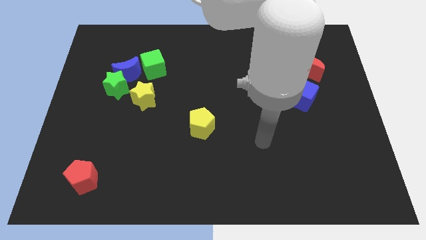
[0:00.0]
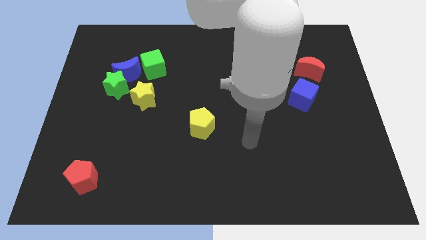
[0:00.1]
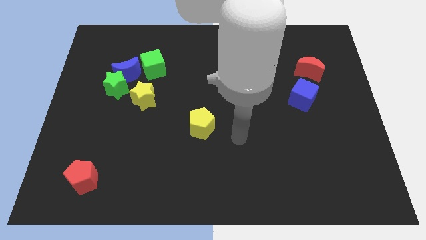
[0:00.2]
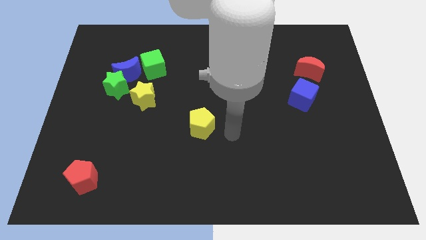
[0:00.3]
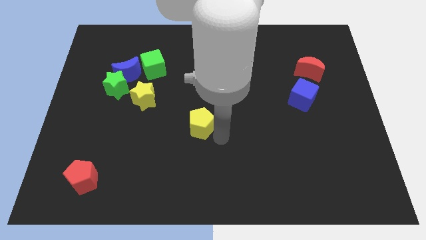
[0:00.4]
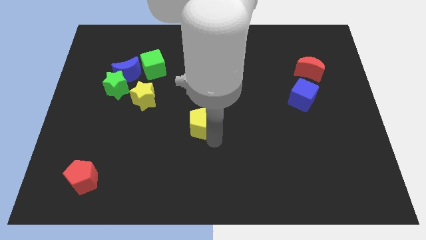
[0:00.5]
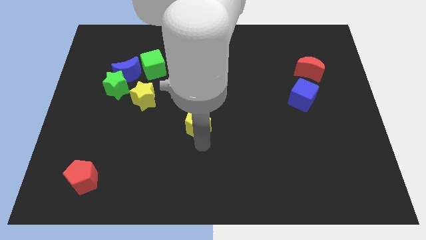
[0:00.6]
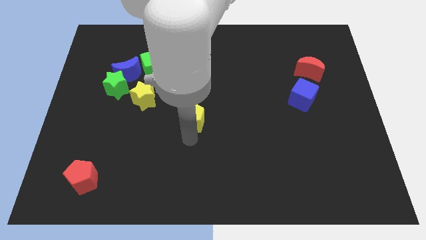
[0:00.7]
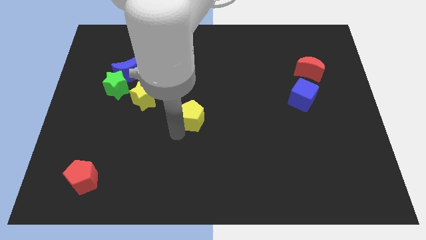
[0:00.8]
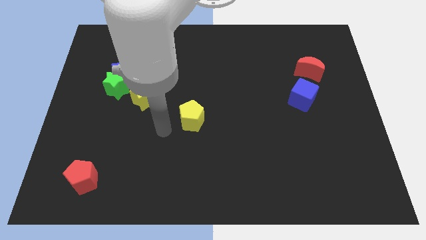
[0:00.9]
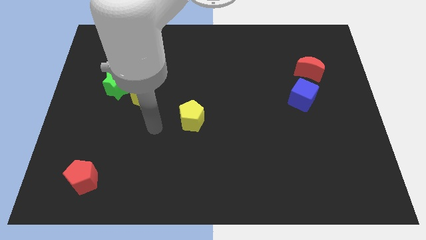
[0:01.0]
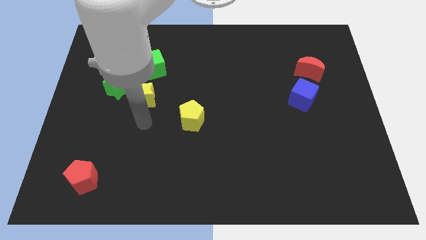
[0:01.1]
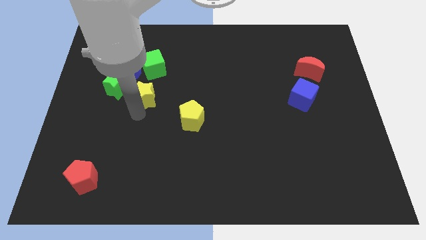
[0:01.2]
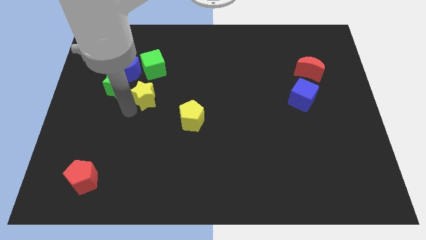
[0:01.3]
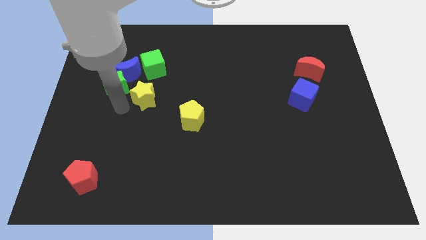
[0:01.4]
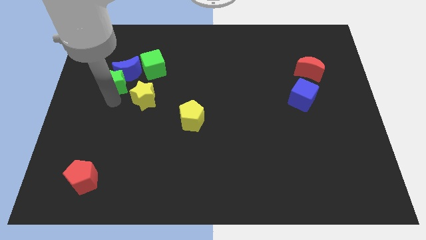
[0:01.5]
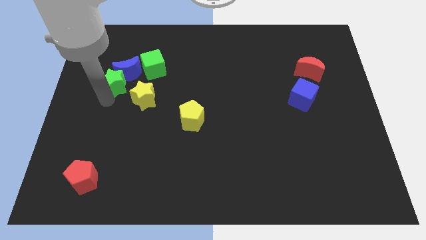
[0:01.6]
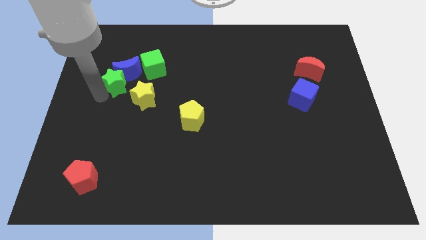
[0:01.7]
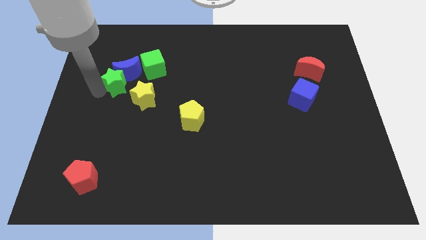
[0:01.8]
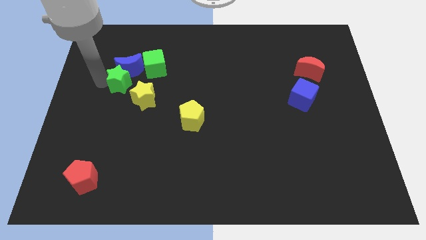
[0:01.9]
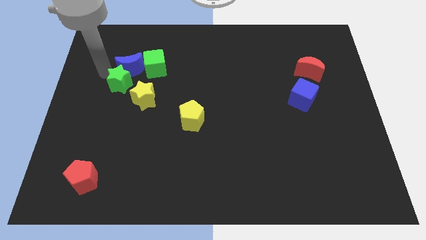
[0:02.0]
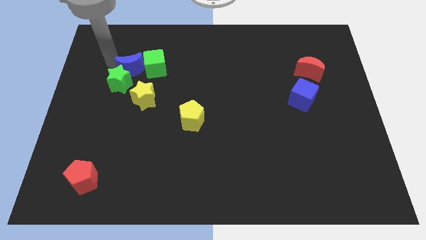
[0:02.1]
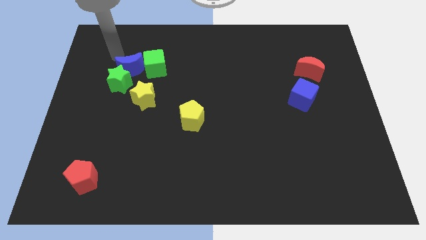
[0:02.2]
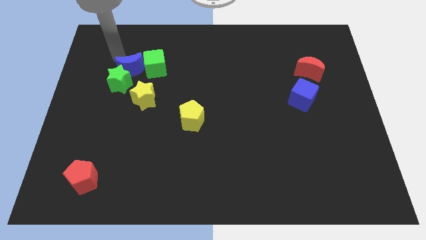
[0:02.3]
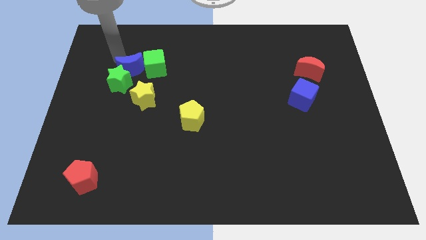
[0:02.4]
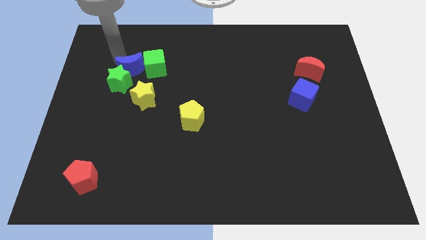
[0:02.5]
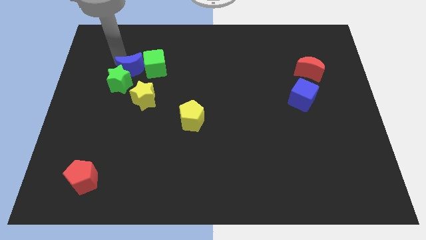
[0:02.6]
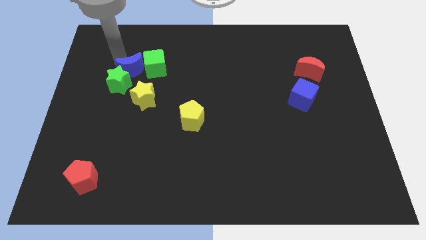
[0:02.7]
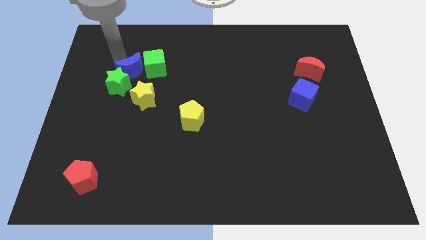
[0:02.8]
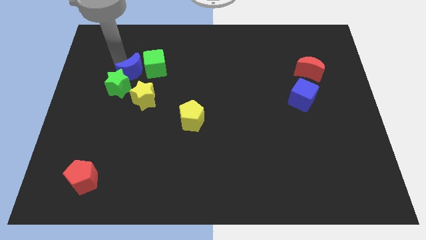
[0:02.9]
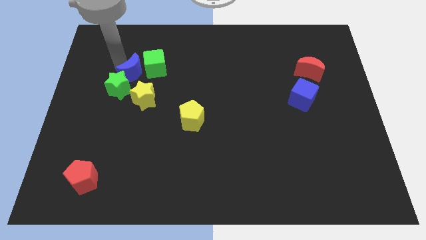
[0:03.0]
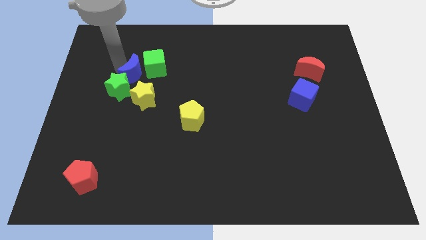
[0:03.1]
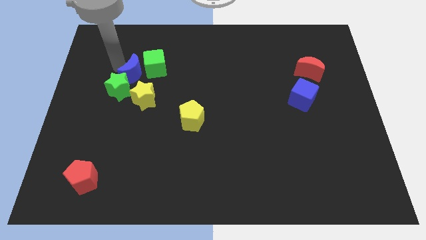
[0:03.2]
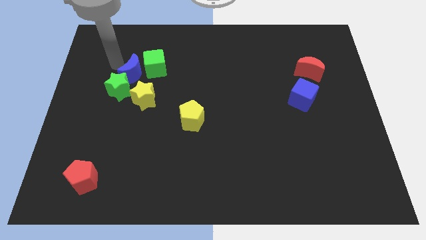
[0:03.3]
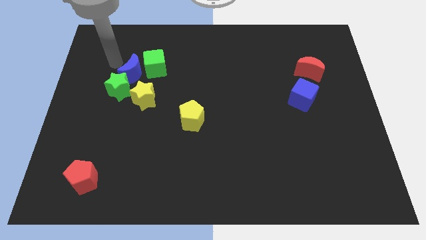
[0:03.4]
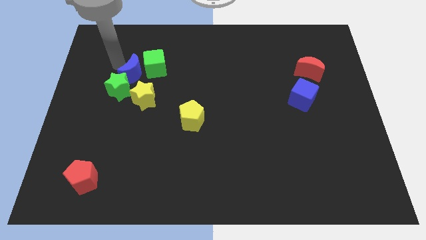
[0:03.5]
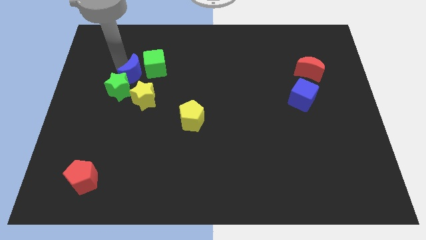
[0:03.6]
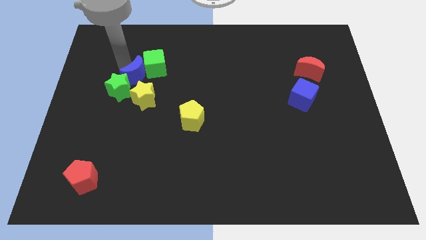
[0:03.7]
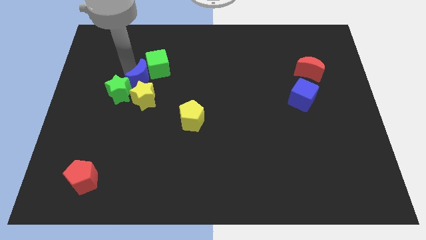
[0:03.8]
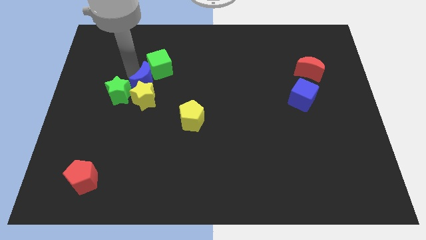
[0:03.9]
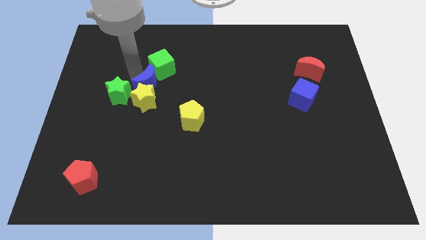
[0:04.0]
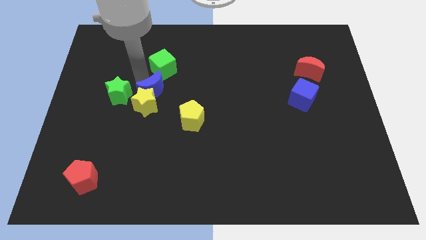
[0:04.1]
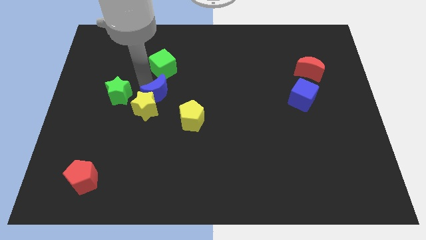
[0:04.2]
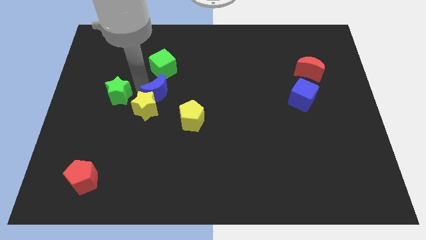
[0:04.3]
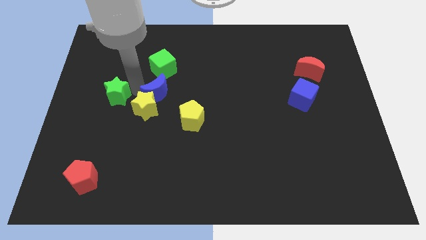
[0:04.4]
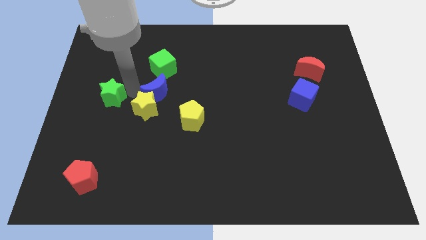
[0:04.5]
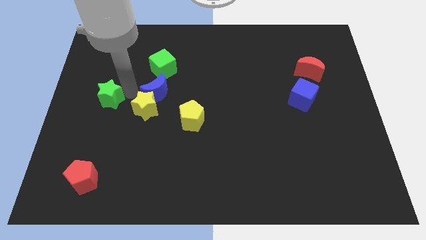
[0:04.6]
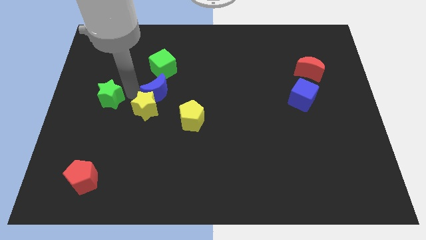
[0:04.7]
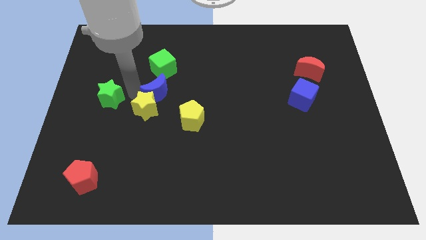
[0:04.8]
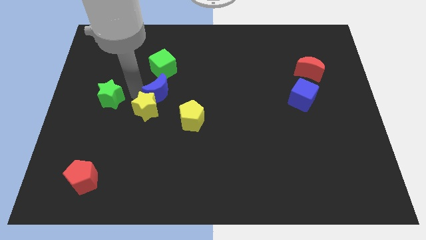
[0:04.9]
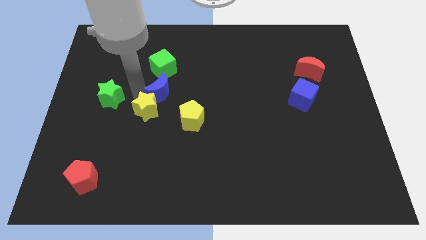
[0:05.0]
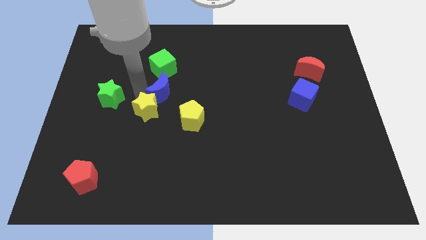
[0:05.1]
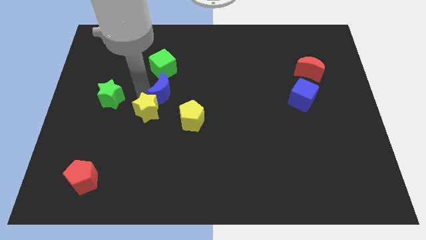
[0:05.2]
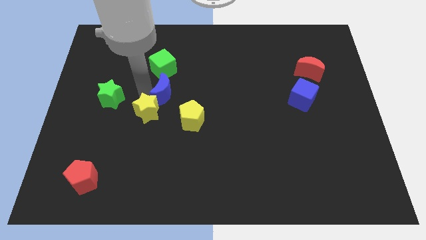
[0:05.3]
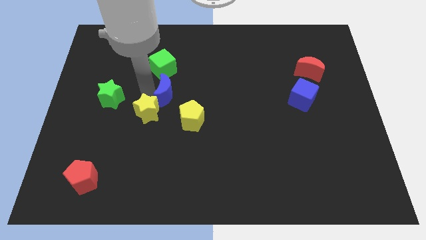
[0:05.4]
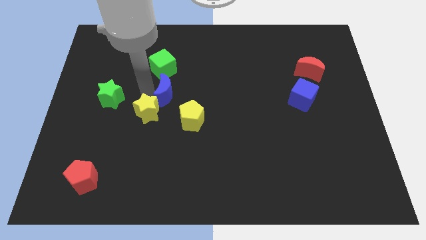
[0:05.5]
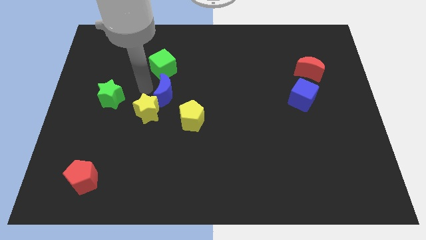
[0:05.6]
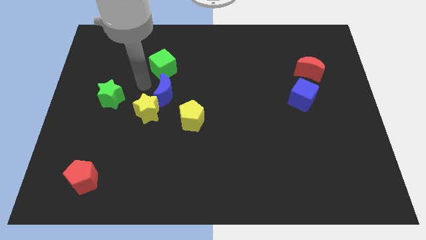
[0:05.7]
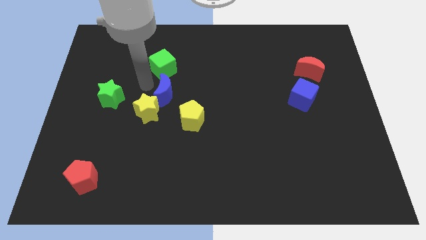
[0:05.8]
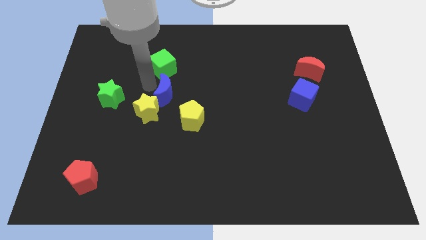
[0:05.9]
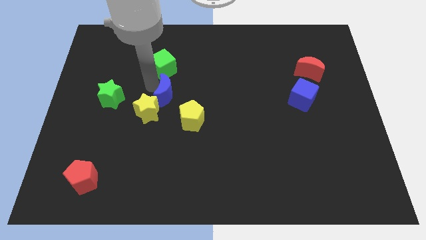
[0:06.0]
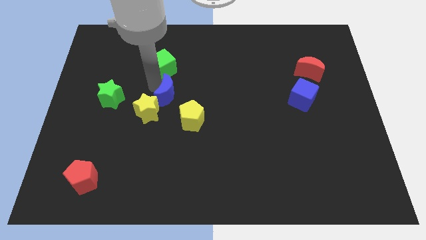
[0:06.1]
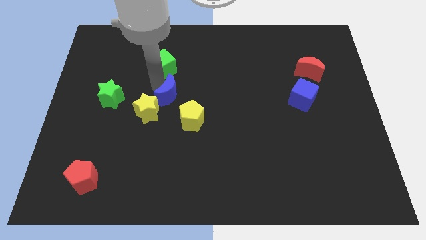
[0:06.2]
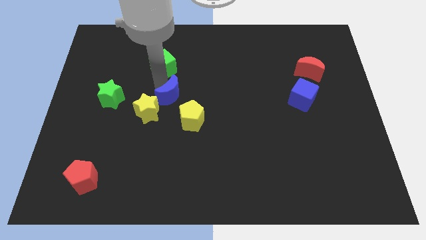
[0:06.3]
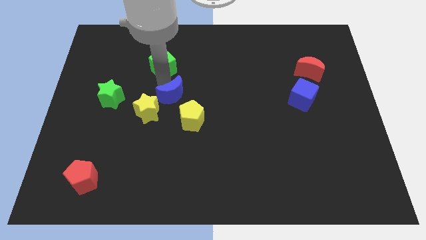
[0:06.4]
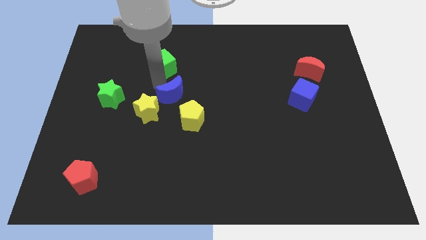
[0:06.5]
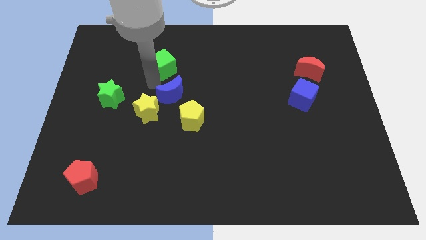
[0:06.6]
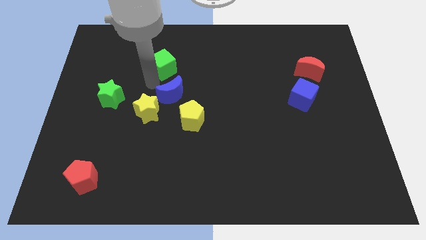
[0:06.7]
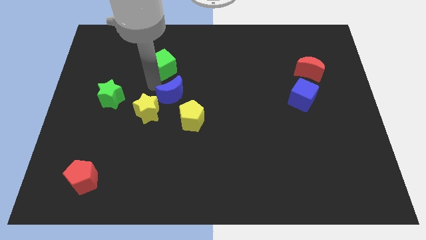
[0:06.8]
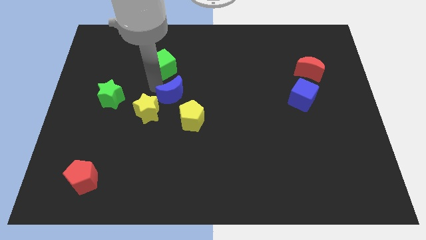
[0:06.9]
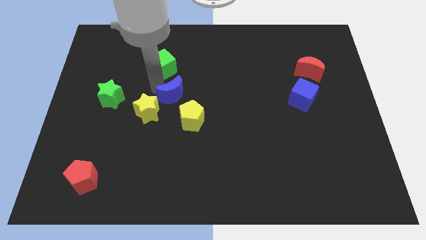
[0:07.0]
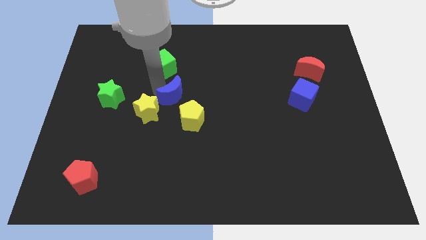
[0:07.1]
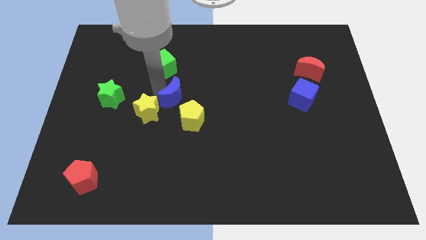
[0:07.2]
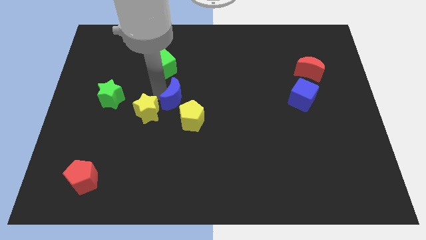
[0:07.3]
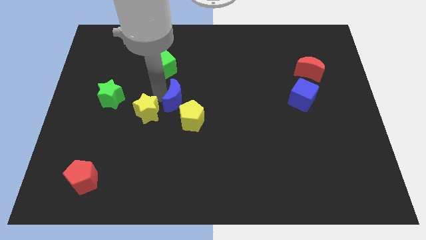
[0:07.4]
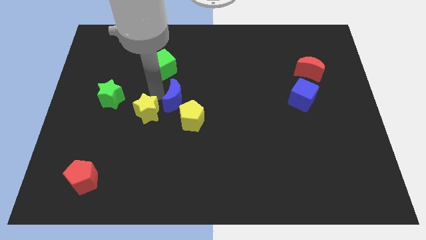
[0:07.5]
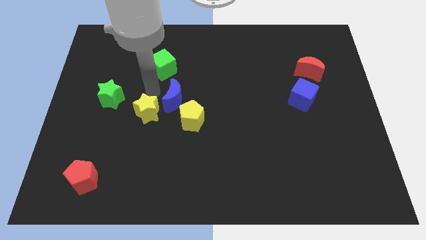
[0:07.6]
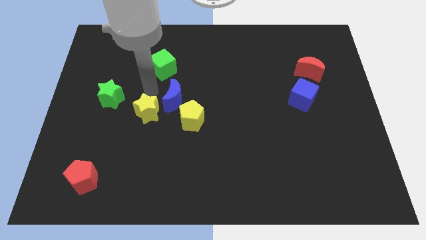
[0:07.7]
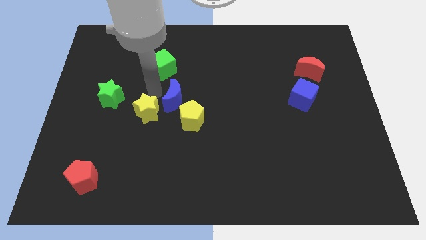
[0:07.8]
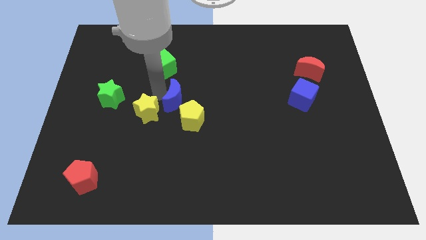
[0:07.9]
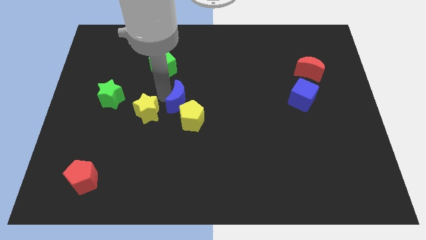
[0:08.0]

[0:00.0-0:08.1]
put the blue moon close to the yellow pentagon
